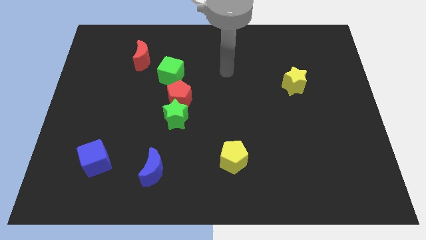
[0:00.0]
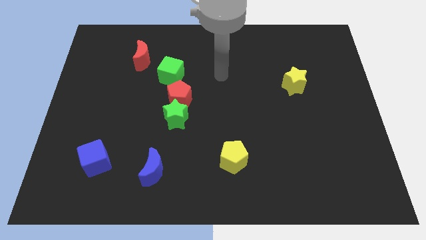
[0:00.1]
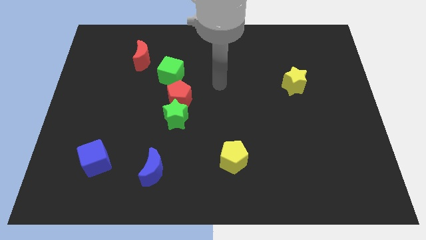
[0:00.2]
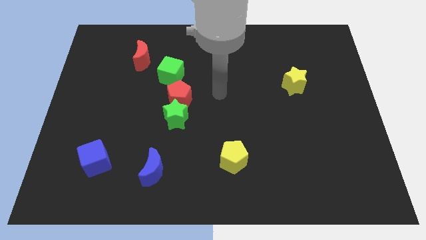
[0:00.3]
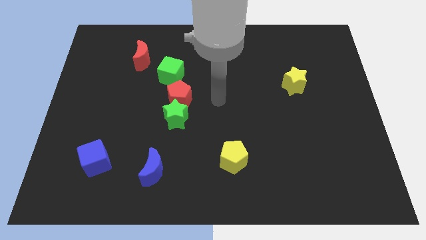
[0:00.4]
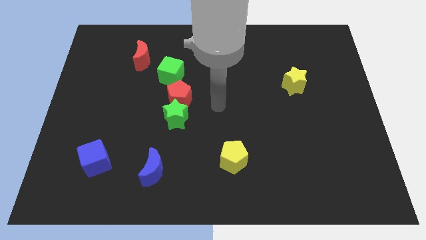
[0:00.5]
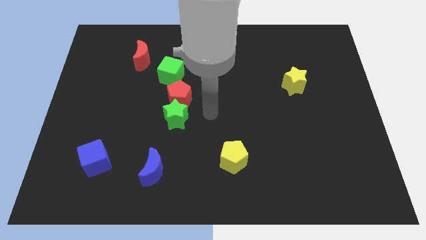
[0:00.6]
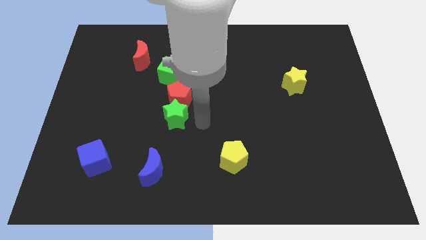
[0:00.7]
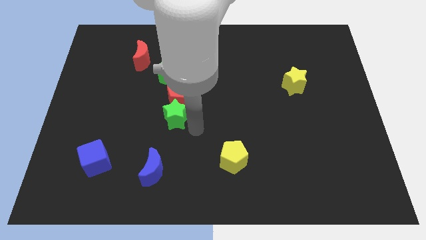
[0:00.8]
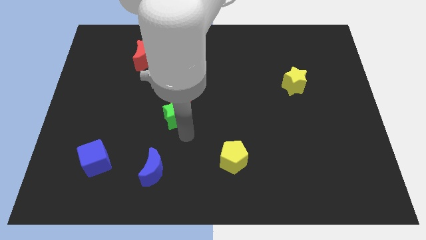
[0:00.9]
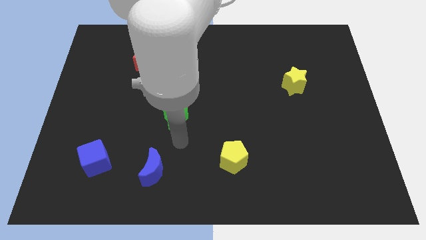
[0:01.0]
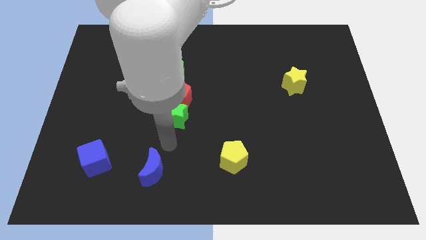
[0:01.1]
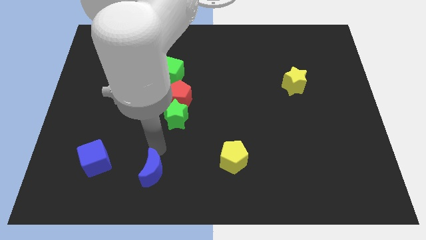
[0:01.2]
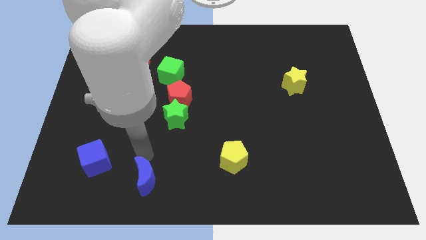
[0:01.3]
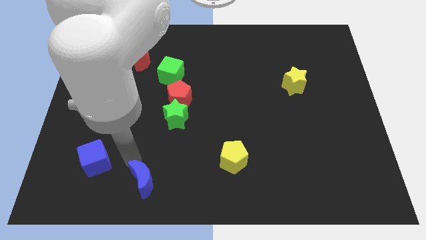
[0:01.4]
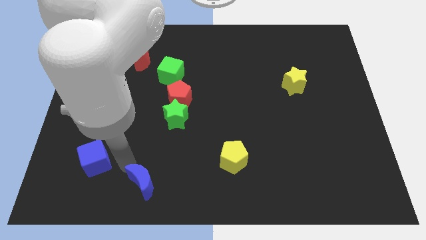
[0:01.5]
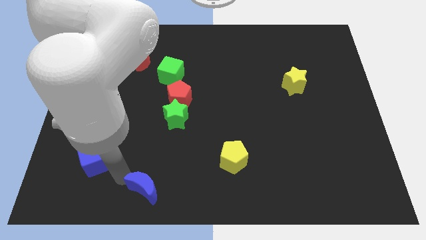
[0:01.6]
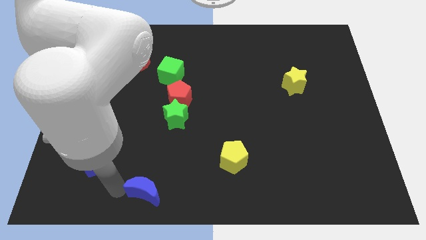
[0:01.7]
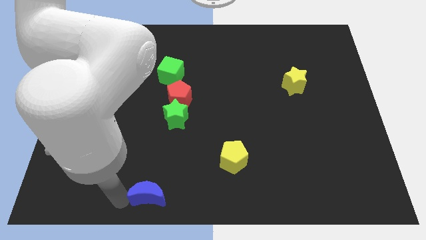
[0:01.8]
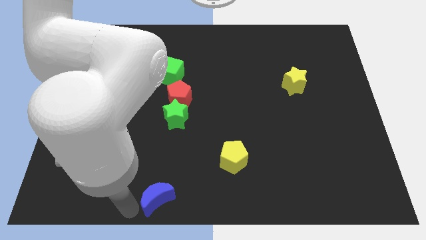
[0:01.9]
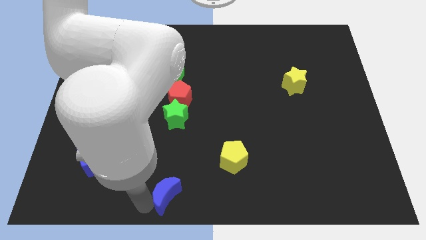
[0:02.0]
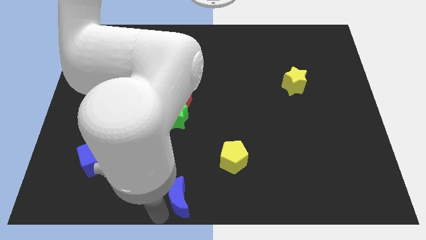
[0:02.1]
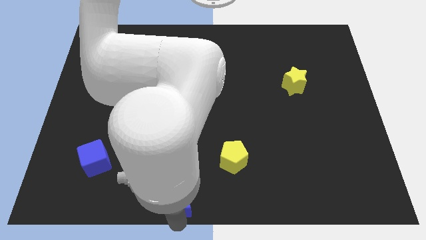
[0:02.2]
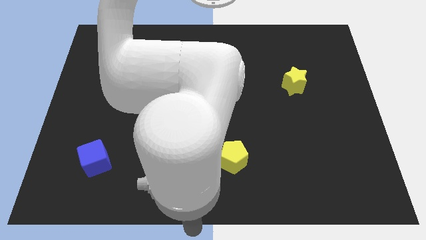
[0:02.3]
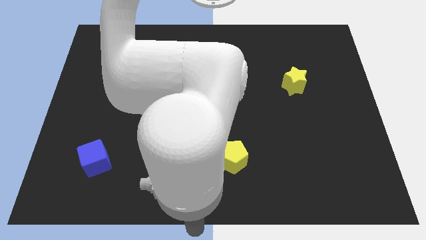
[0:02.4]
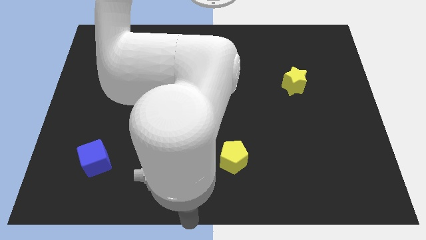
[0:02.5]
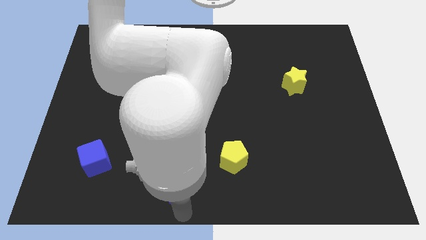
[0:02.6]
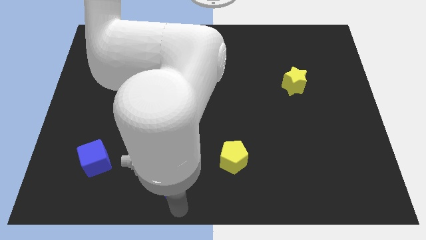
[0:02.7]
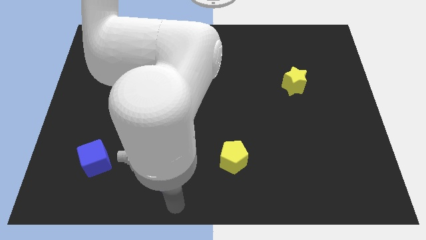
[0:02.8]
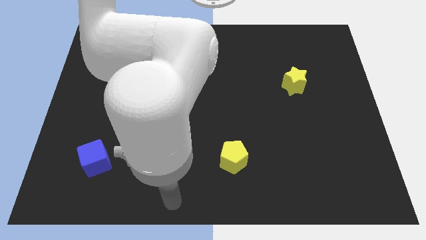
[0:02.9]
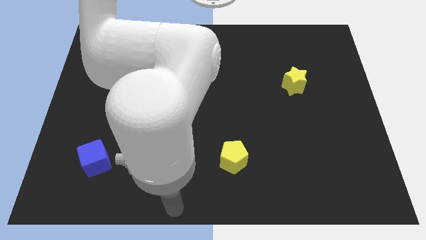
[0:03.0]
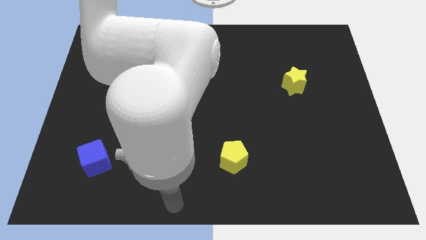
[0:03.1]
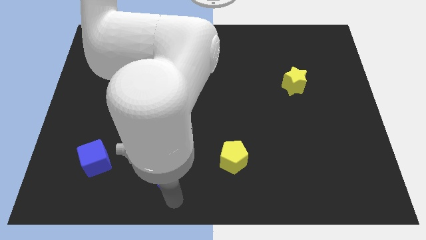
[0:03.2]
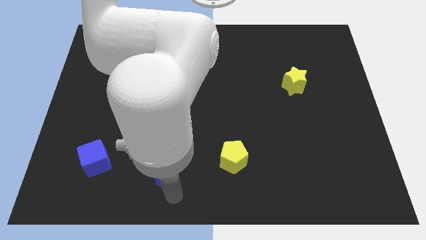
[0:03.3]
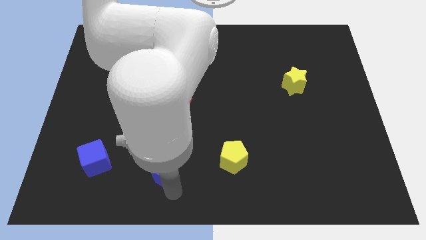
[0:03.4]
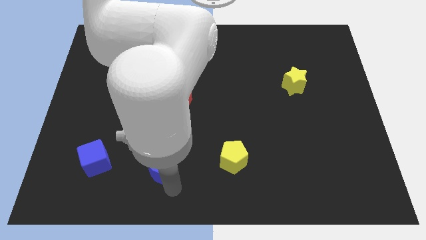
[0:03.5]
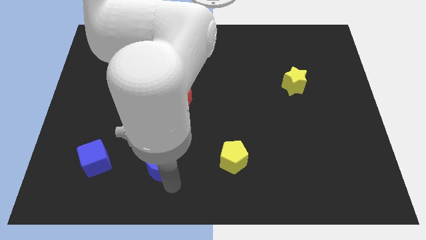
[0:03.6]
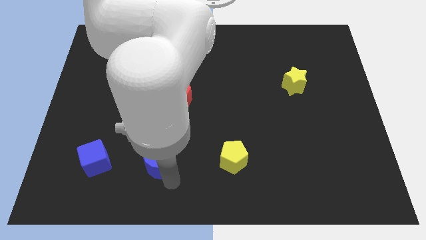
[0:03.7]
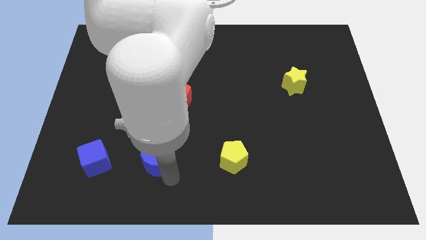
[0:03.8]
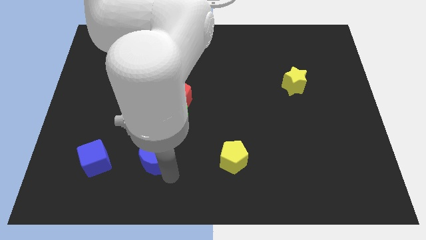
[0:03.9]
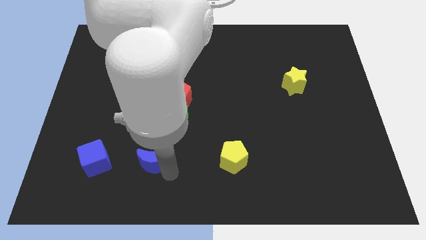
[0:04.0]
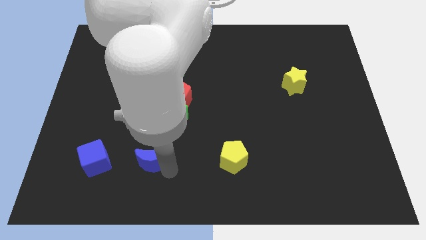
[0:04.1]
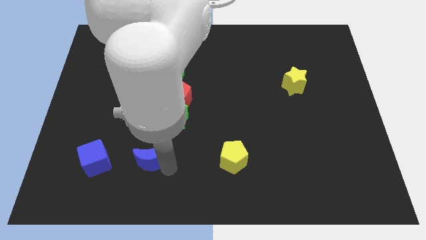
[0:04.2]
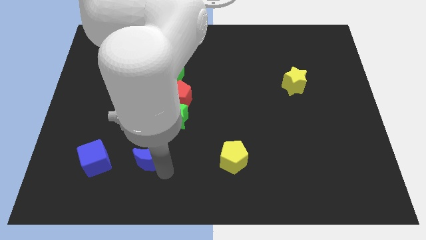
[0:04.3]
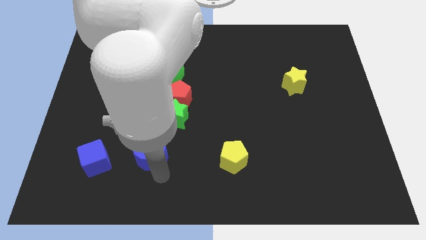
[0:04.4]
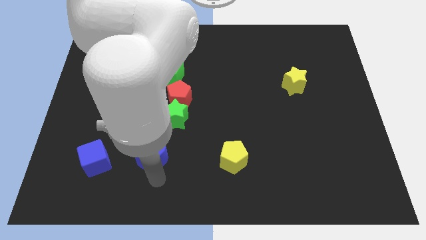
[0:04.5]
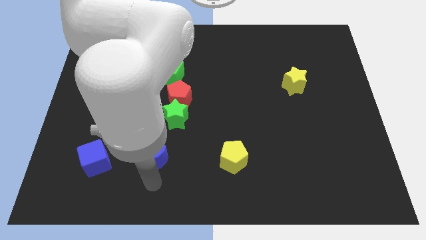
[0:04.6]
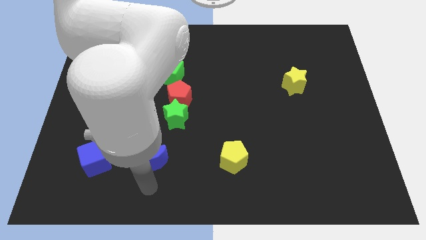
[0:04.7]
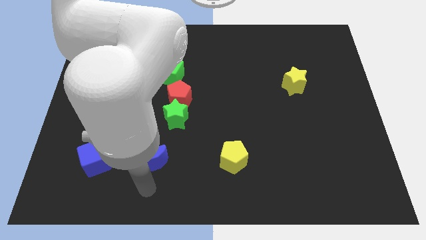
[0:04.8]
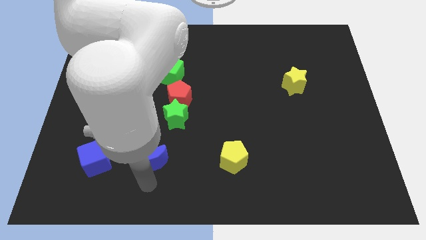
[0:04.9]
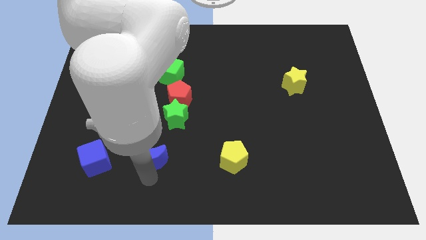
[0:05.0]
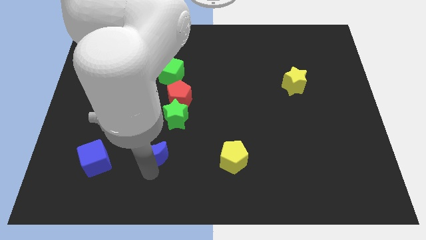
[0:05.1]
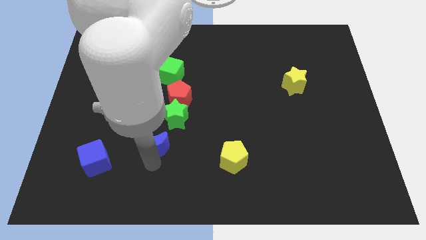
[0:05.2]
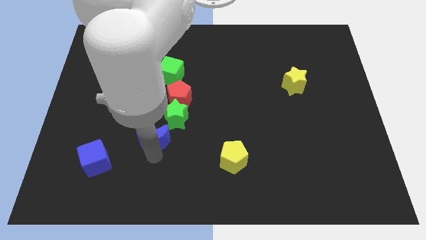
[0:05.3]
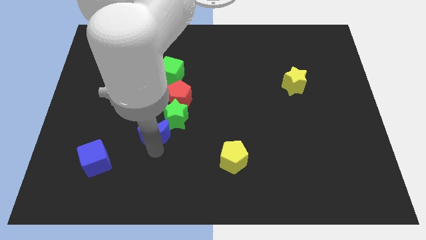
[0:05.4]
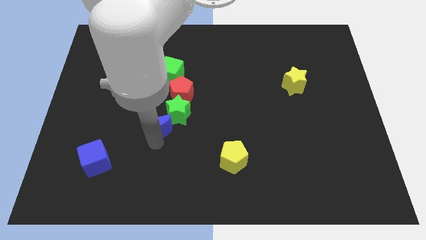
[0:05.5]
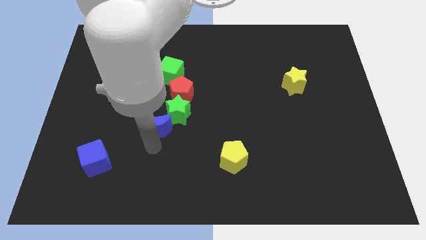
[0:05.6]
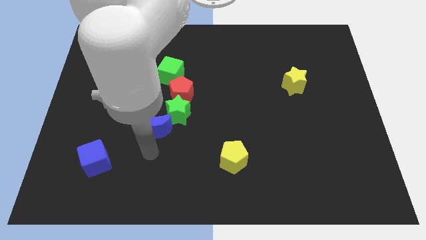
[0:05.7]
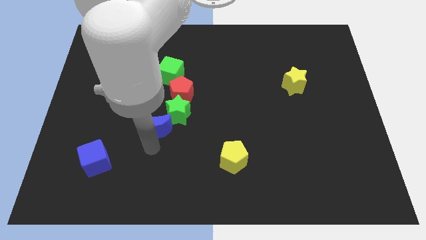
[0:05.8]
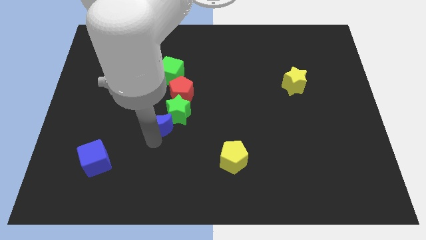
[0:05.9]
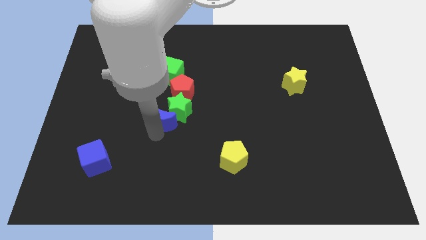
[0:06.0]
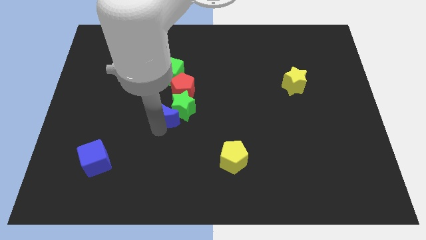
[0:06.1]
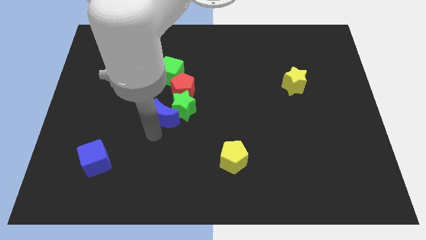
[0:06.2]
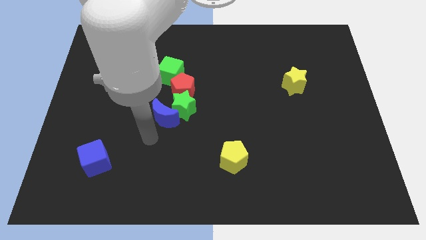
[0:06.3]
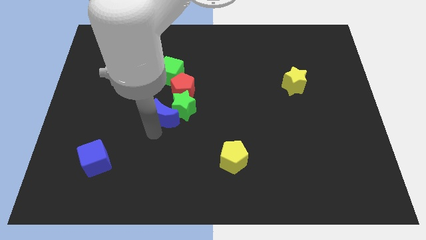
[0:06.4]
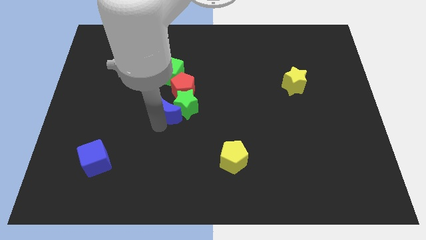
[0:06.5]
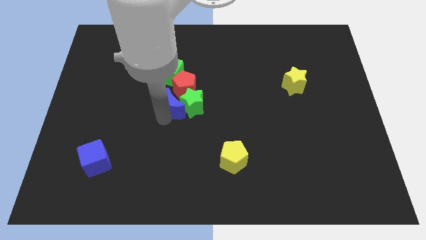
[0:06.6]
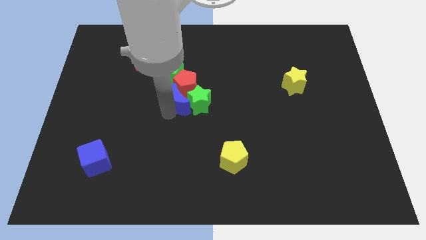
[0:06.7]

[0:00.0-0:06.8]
move the blue moon to the red pentagon

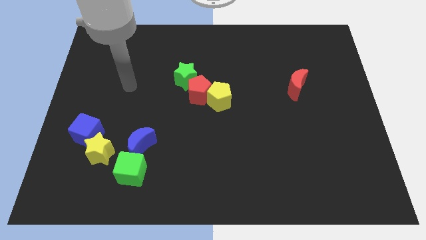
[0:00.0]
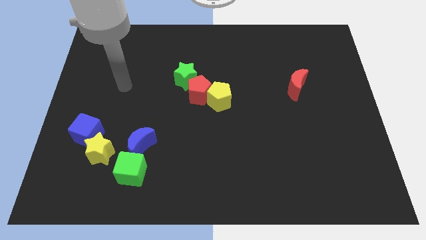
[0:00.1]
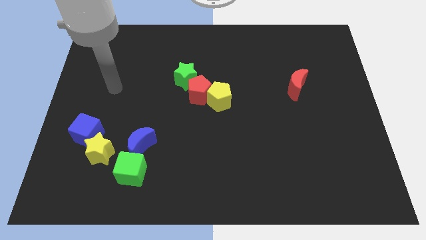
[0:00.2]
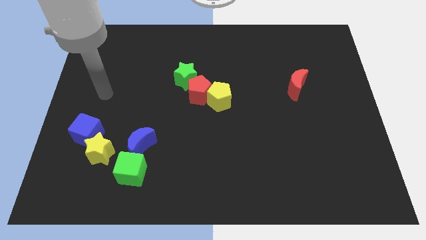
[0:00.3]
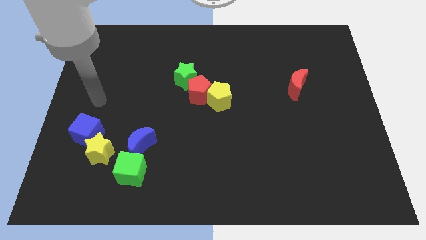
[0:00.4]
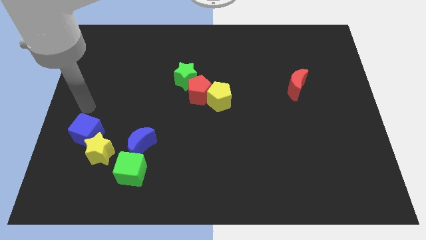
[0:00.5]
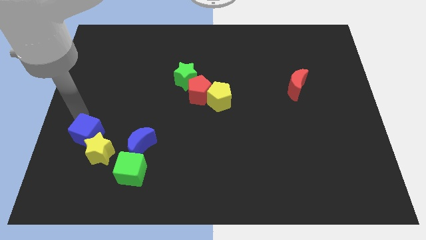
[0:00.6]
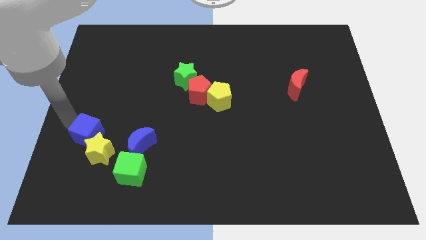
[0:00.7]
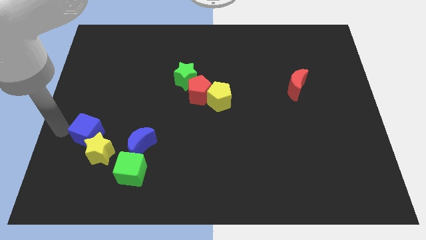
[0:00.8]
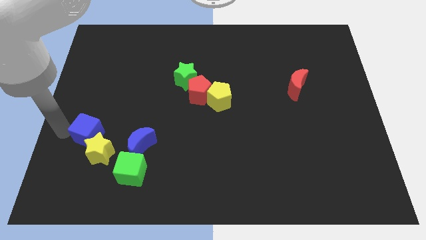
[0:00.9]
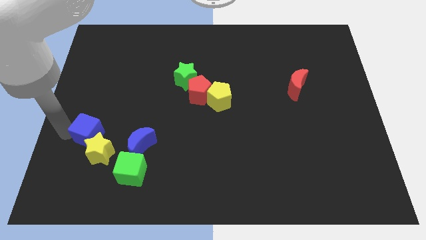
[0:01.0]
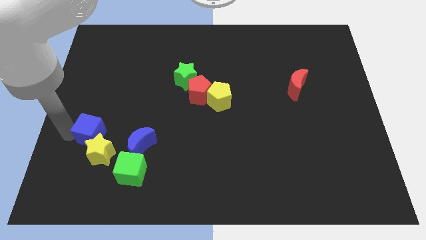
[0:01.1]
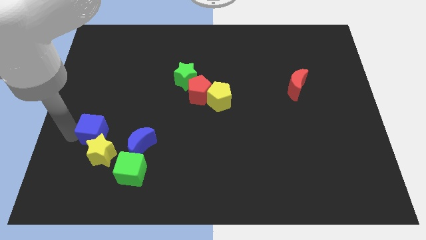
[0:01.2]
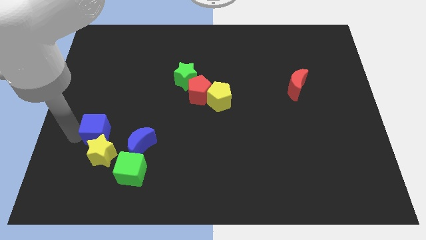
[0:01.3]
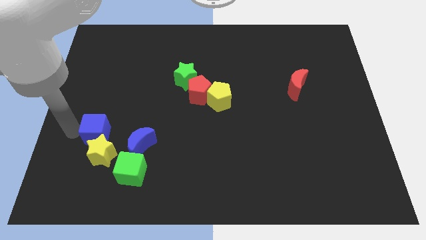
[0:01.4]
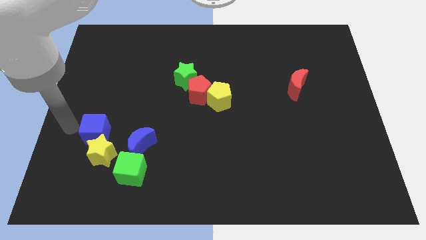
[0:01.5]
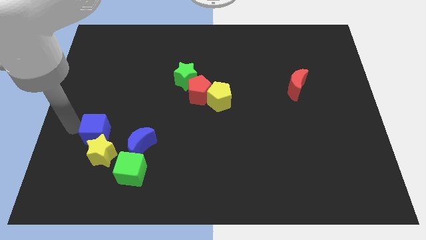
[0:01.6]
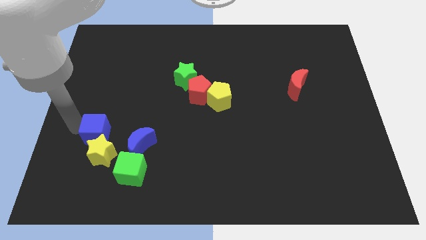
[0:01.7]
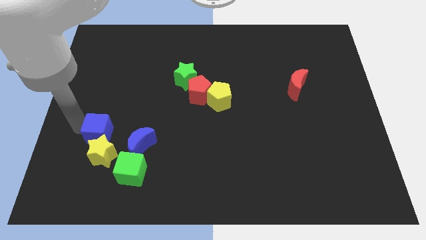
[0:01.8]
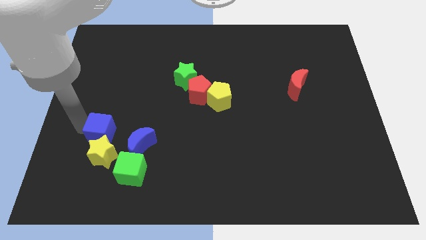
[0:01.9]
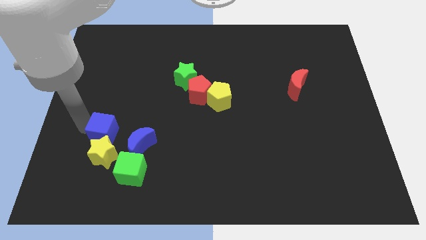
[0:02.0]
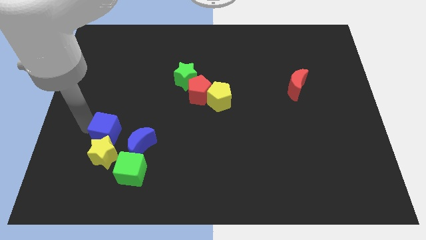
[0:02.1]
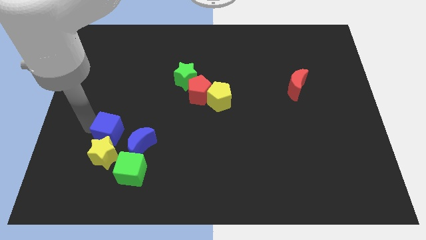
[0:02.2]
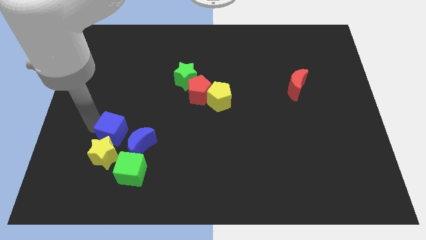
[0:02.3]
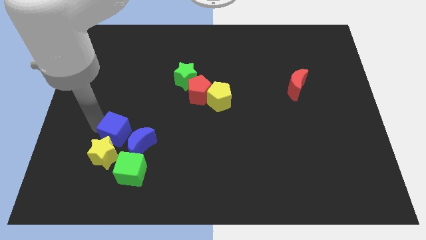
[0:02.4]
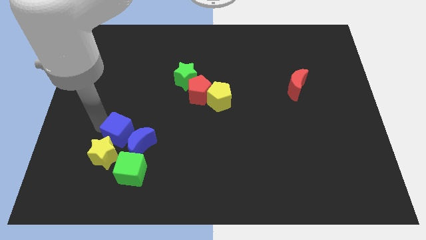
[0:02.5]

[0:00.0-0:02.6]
push the blue cube towards the blue moon
